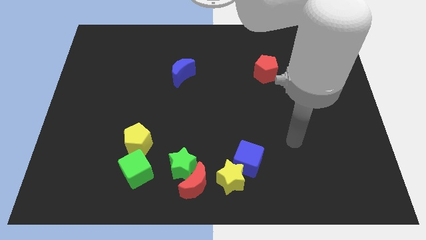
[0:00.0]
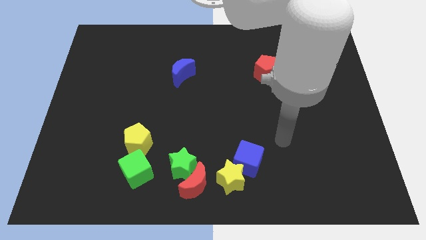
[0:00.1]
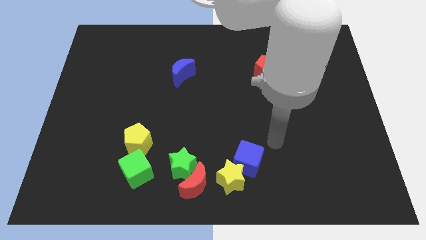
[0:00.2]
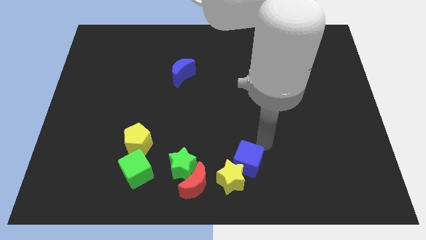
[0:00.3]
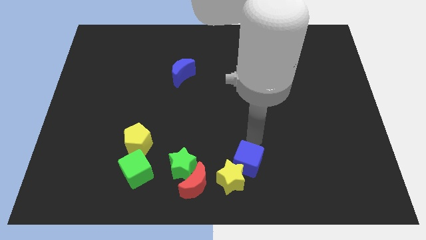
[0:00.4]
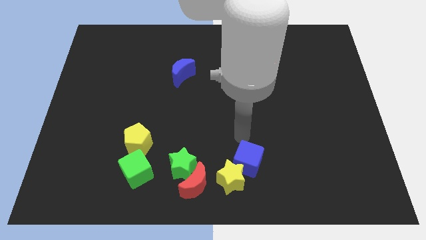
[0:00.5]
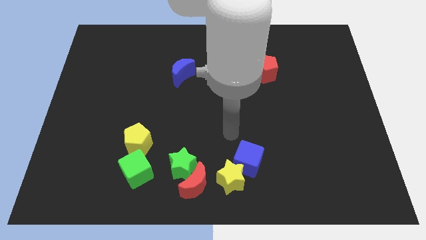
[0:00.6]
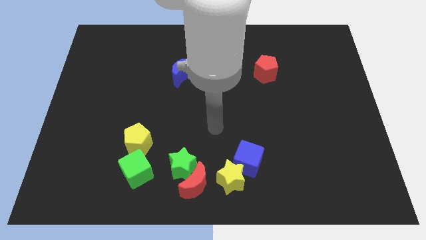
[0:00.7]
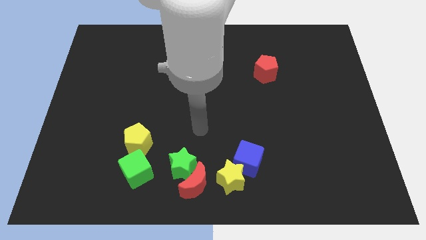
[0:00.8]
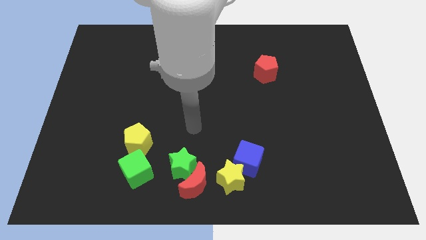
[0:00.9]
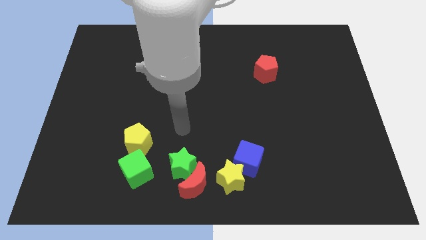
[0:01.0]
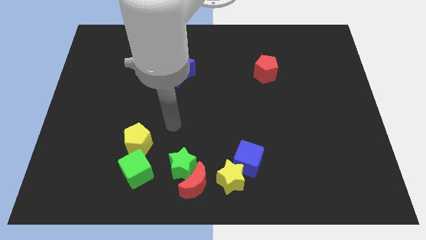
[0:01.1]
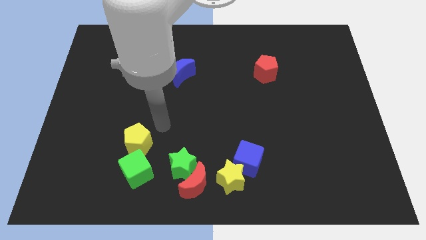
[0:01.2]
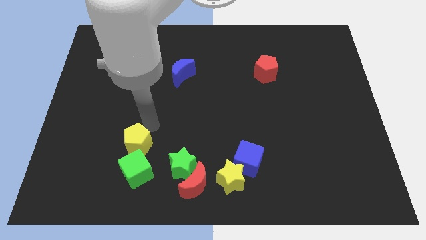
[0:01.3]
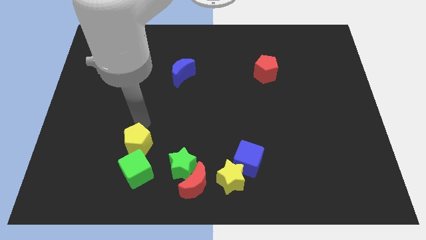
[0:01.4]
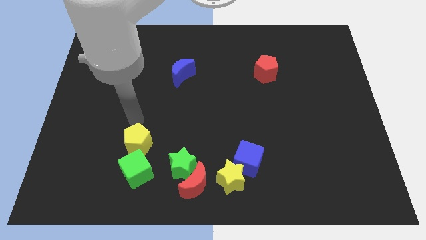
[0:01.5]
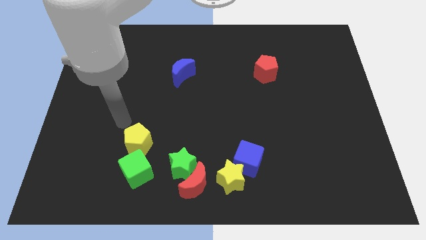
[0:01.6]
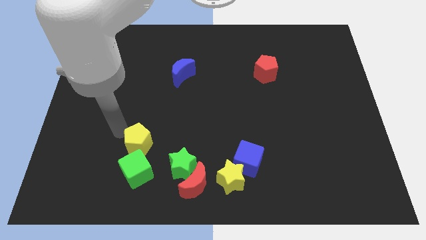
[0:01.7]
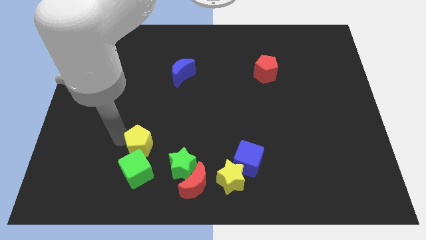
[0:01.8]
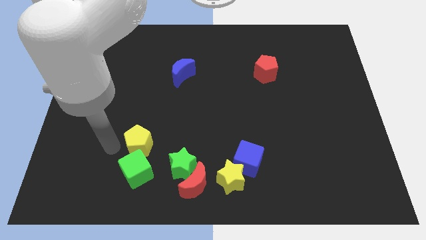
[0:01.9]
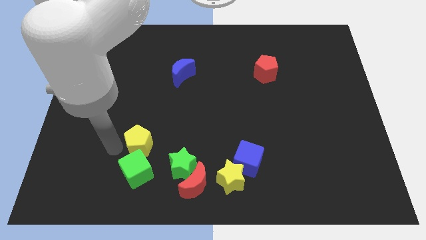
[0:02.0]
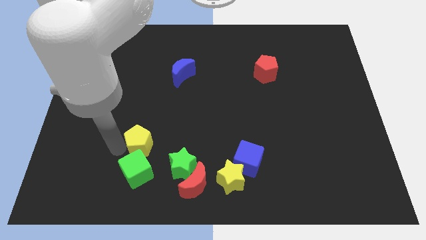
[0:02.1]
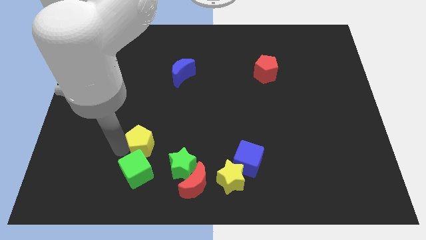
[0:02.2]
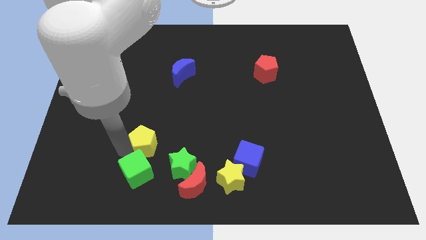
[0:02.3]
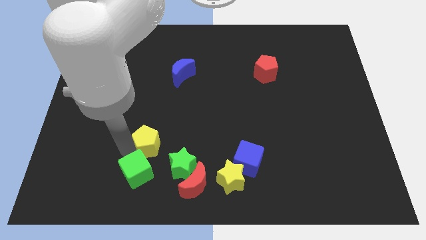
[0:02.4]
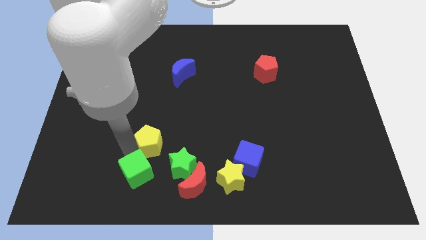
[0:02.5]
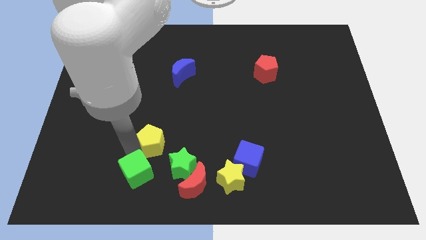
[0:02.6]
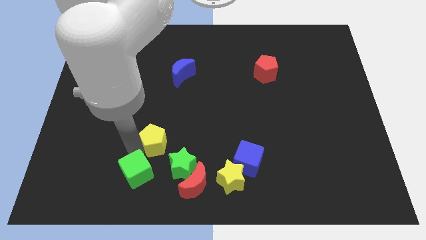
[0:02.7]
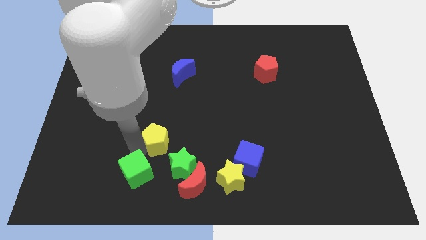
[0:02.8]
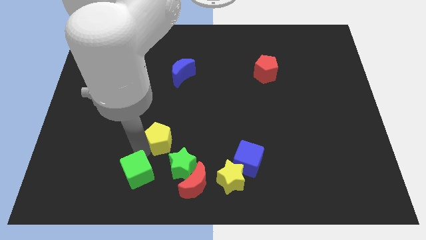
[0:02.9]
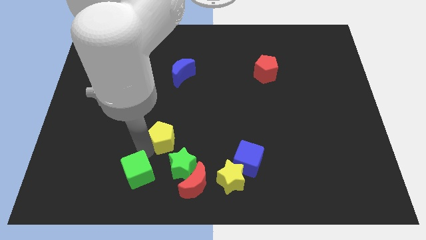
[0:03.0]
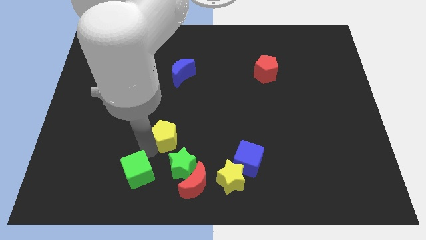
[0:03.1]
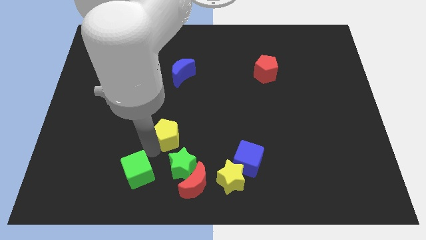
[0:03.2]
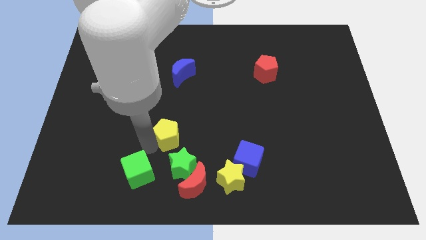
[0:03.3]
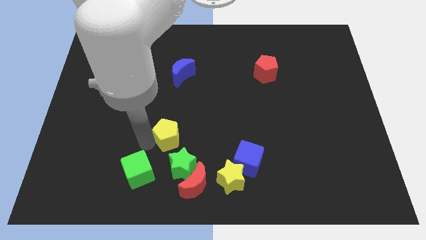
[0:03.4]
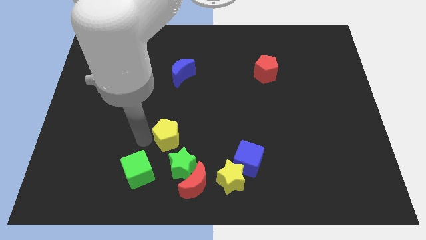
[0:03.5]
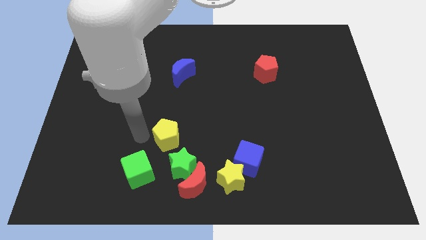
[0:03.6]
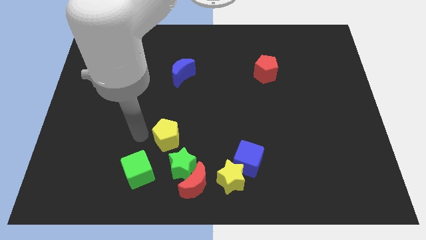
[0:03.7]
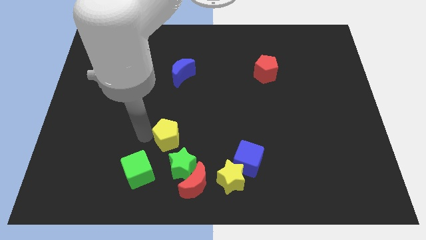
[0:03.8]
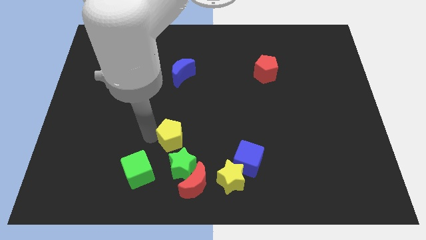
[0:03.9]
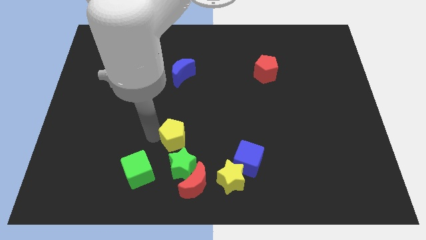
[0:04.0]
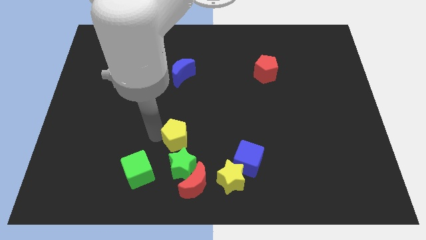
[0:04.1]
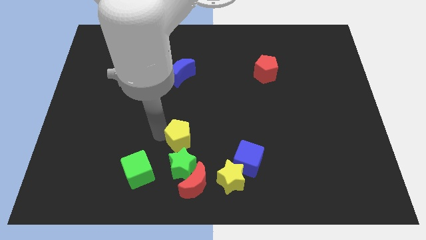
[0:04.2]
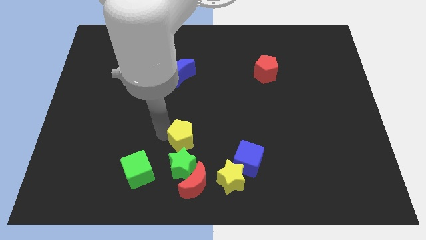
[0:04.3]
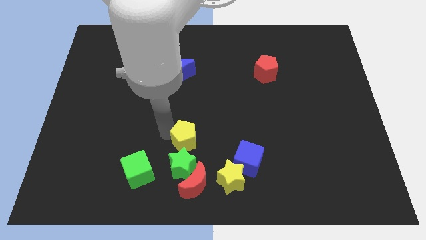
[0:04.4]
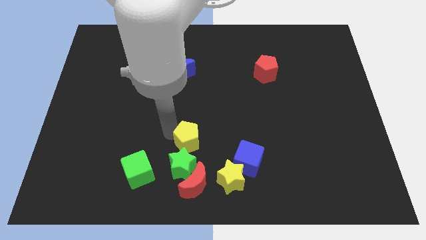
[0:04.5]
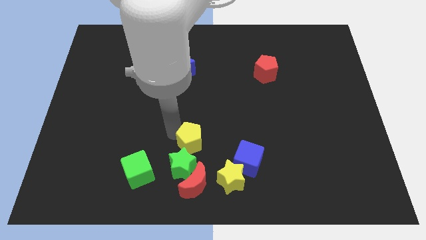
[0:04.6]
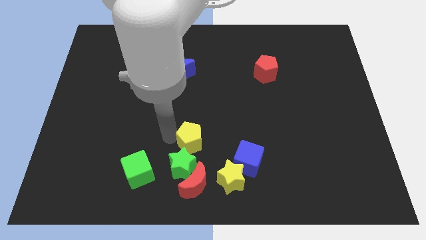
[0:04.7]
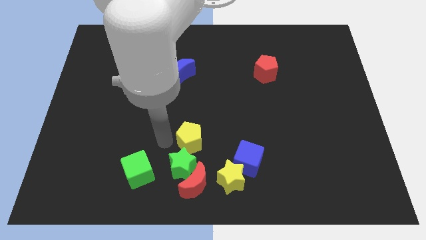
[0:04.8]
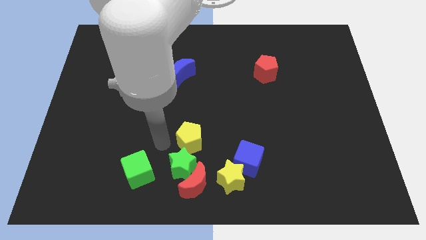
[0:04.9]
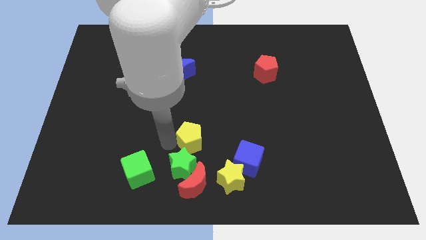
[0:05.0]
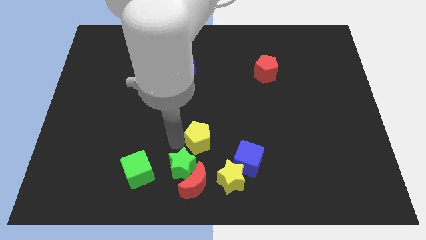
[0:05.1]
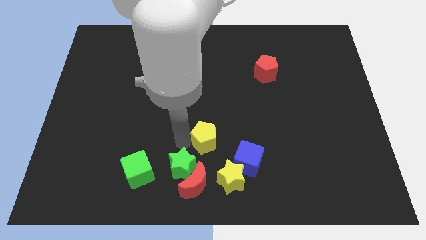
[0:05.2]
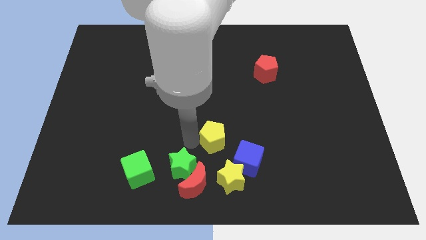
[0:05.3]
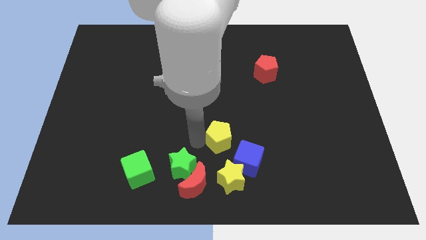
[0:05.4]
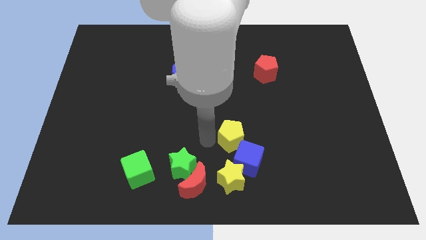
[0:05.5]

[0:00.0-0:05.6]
slide the yellow pentagon right

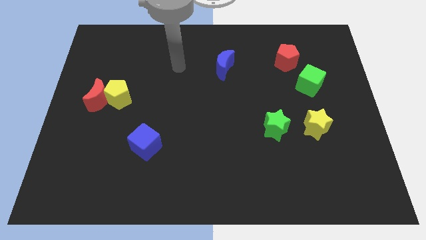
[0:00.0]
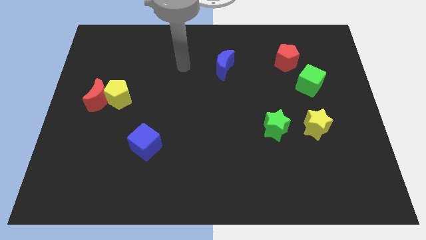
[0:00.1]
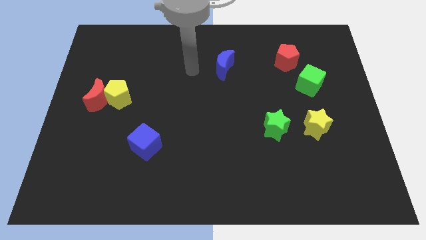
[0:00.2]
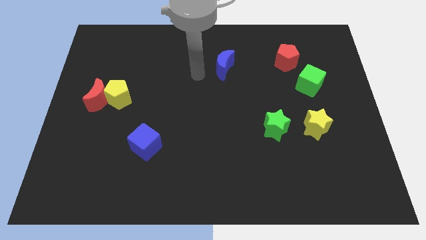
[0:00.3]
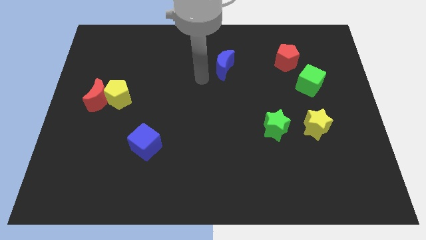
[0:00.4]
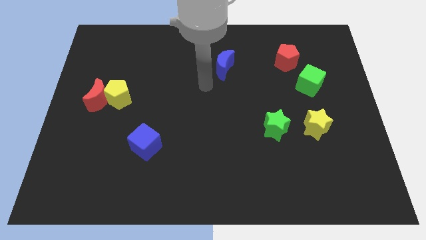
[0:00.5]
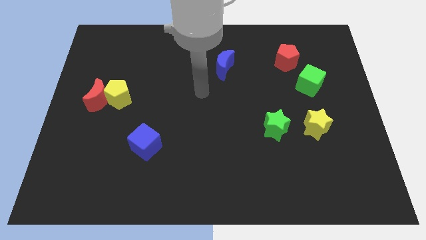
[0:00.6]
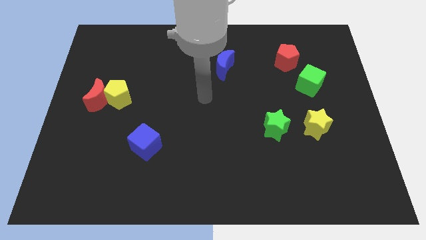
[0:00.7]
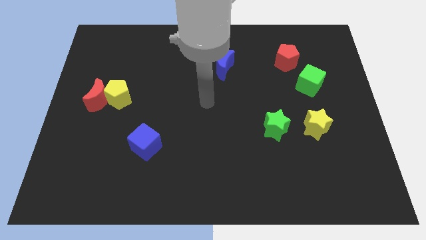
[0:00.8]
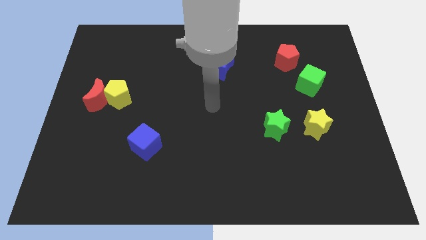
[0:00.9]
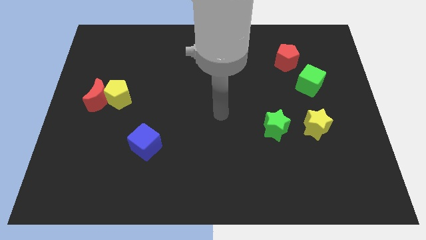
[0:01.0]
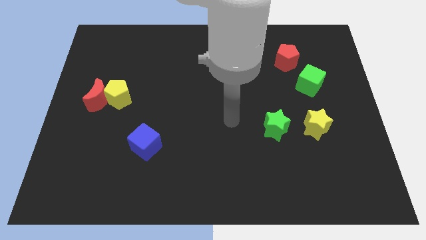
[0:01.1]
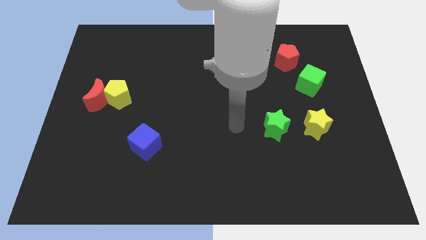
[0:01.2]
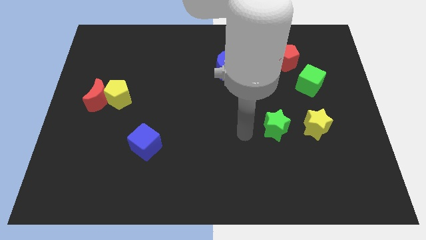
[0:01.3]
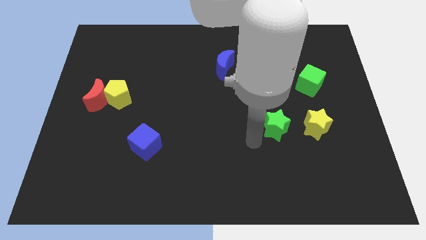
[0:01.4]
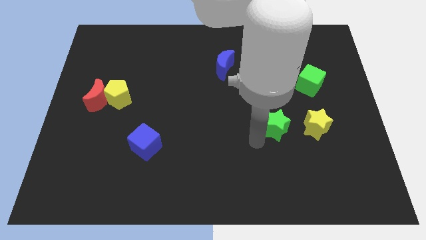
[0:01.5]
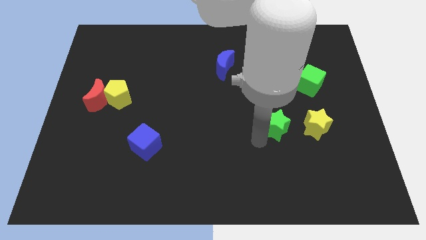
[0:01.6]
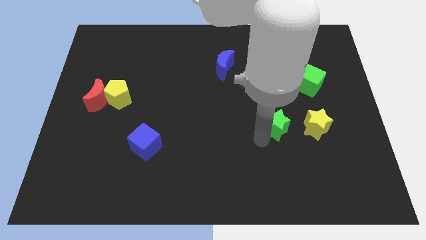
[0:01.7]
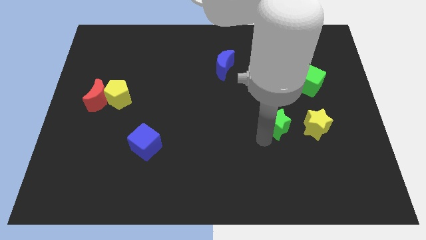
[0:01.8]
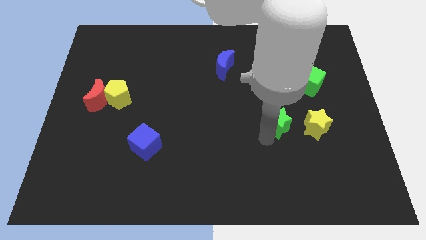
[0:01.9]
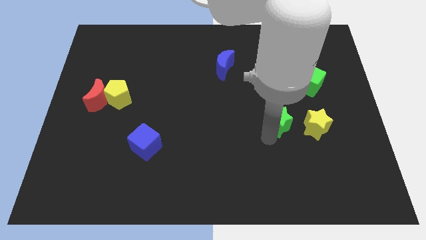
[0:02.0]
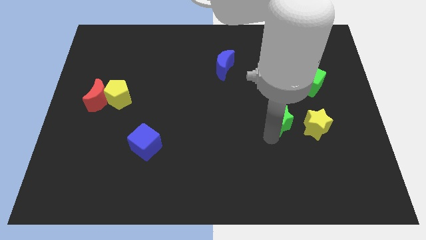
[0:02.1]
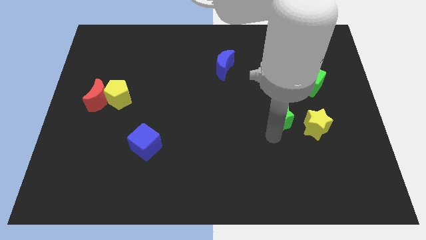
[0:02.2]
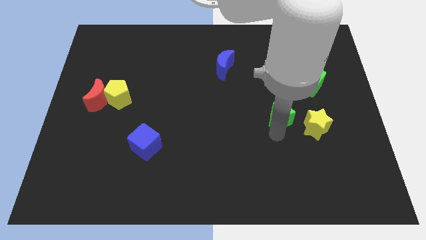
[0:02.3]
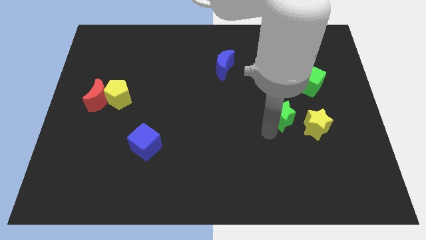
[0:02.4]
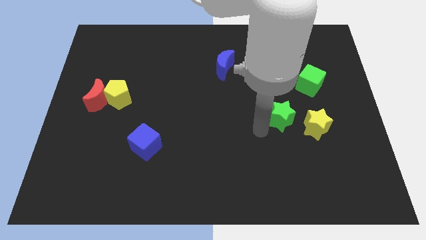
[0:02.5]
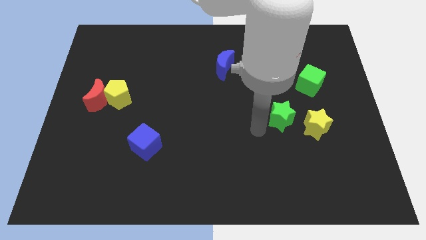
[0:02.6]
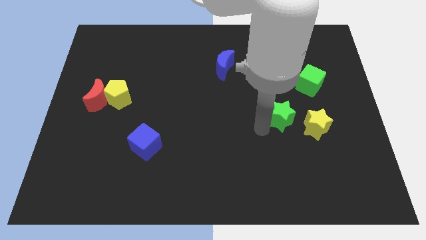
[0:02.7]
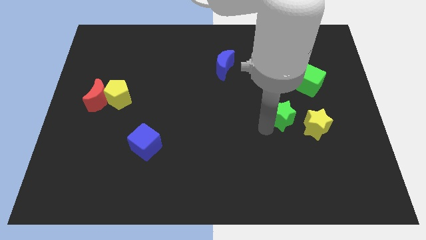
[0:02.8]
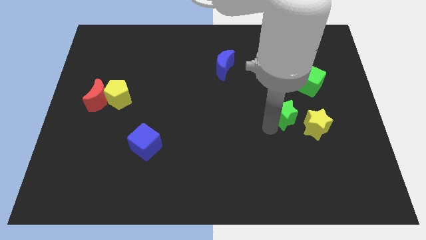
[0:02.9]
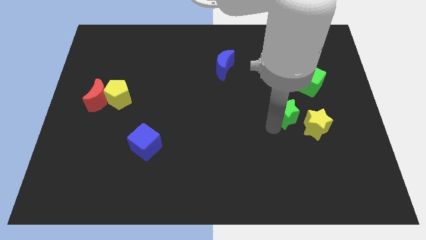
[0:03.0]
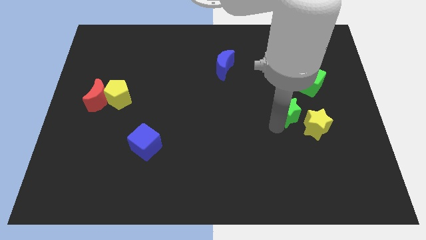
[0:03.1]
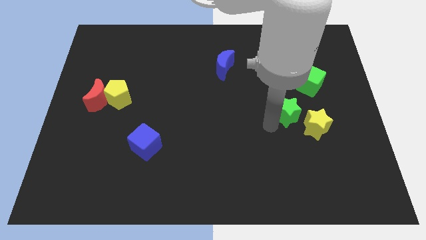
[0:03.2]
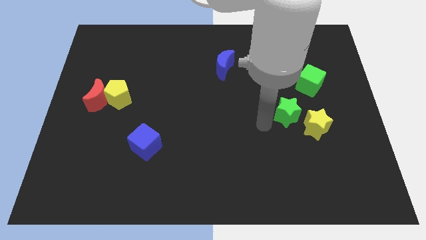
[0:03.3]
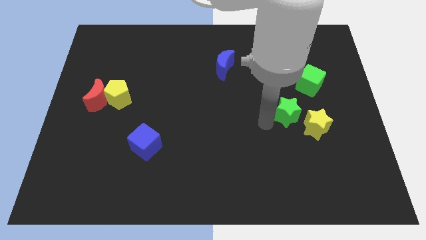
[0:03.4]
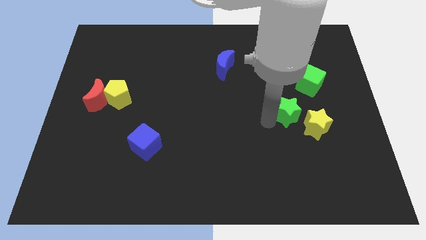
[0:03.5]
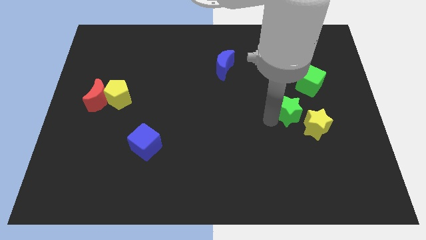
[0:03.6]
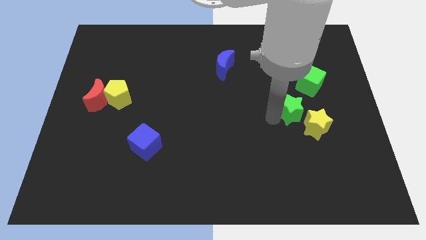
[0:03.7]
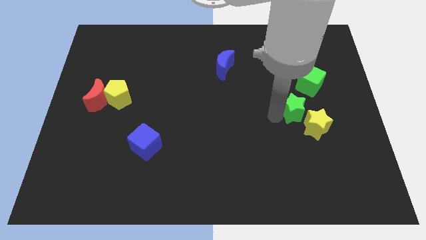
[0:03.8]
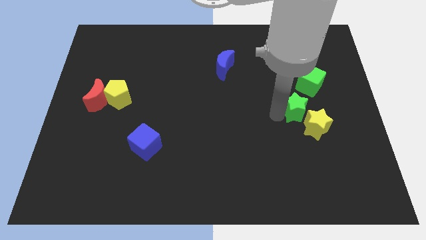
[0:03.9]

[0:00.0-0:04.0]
slide the green star a bit up and to the right
